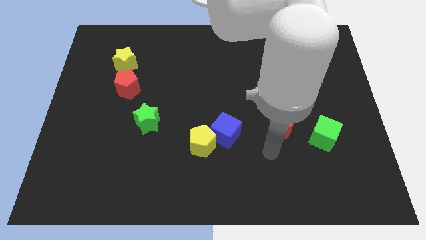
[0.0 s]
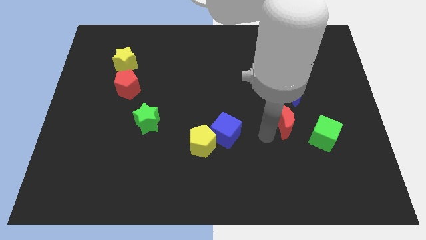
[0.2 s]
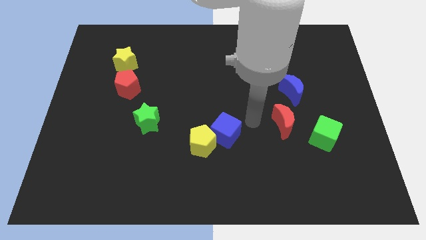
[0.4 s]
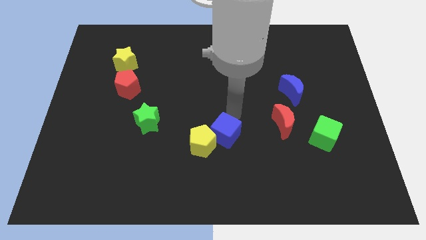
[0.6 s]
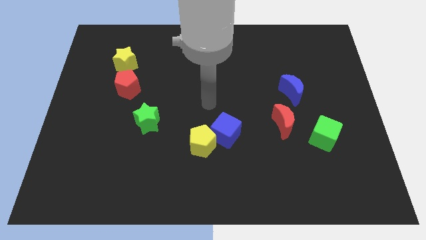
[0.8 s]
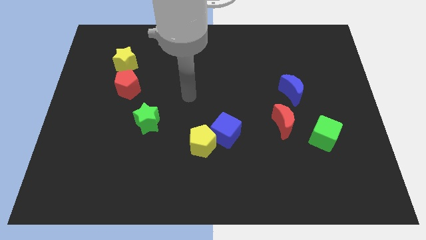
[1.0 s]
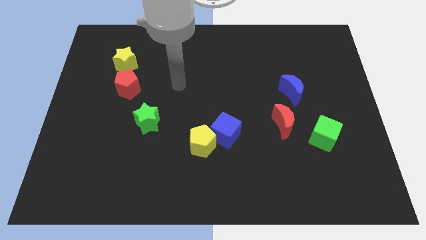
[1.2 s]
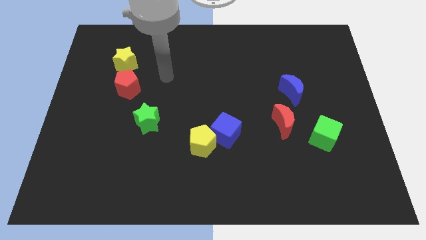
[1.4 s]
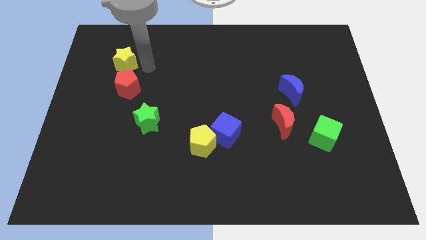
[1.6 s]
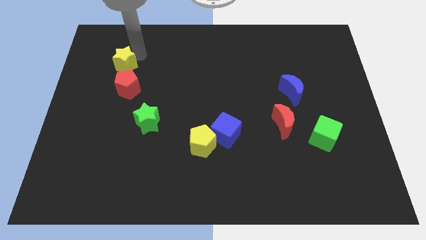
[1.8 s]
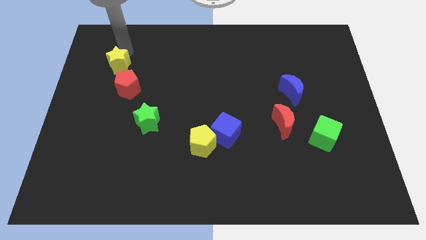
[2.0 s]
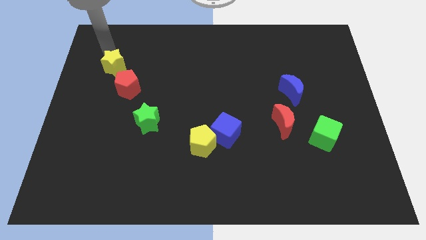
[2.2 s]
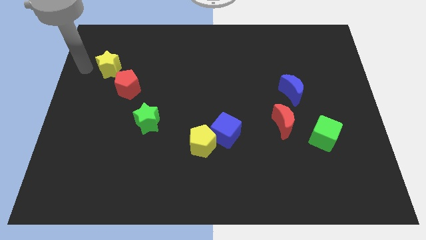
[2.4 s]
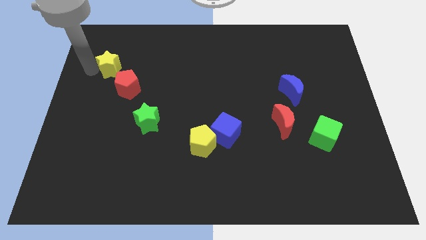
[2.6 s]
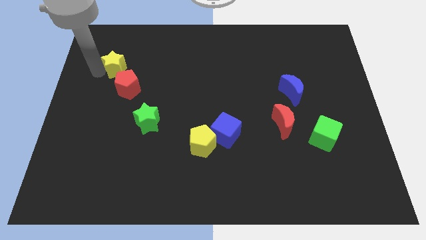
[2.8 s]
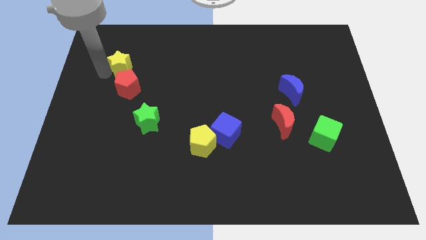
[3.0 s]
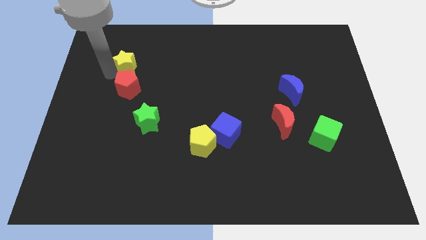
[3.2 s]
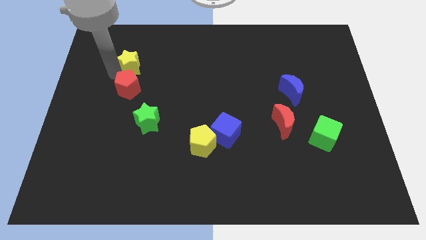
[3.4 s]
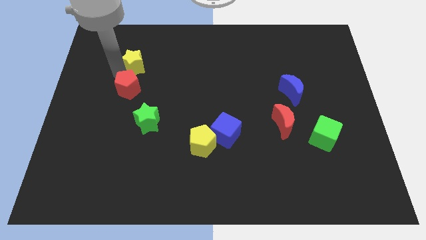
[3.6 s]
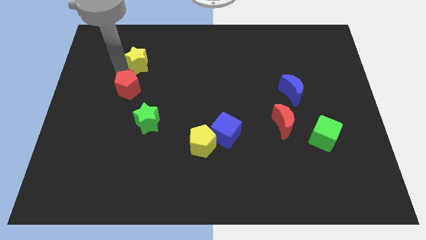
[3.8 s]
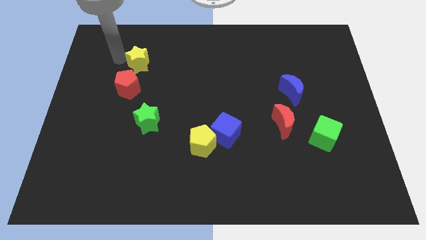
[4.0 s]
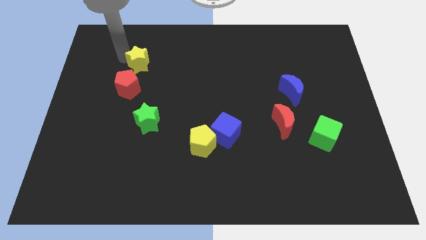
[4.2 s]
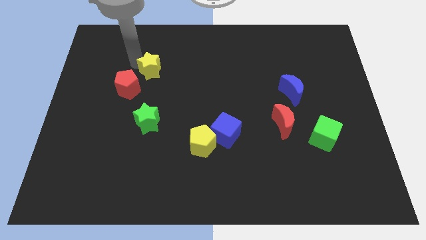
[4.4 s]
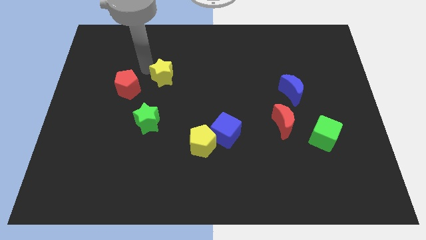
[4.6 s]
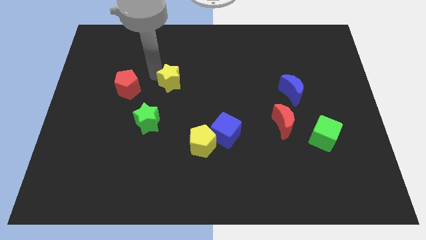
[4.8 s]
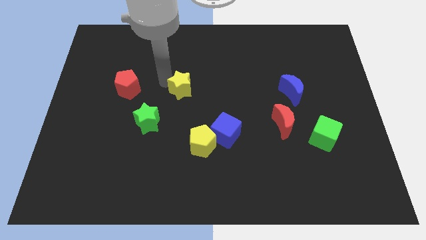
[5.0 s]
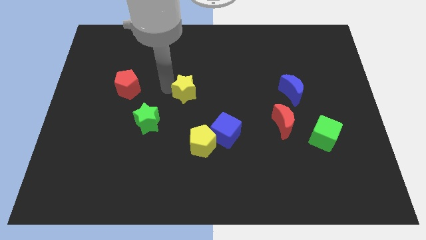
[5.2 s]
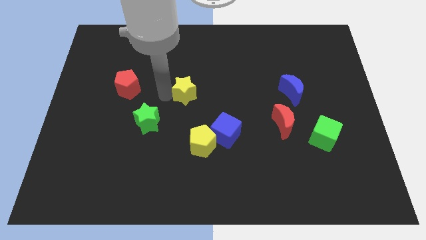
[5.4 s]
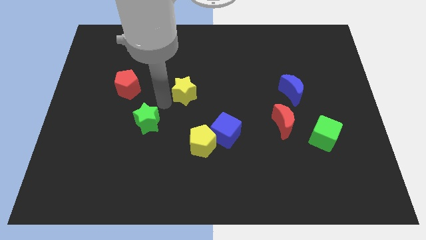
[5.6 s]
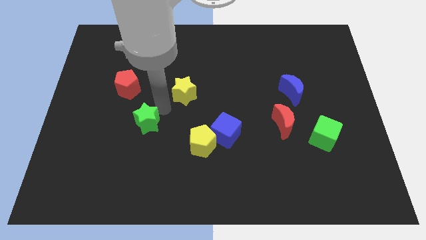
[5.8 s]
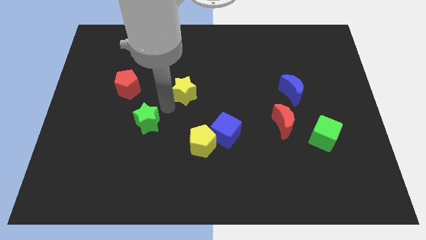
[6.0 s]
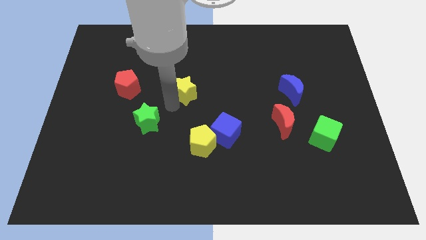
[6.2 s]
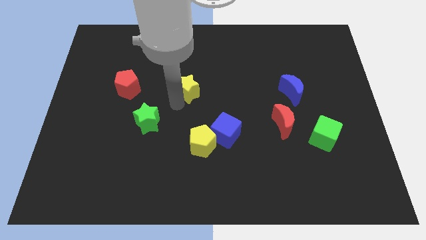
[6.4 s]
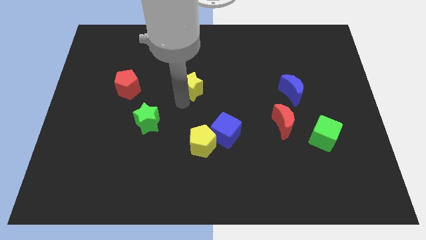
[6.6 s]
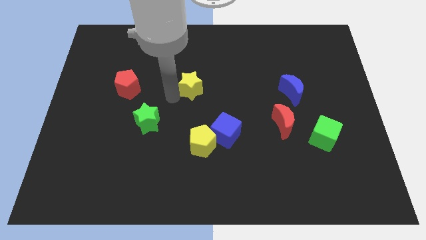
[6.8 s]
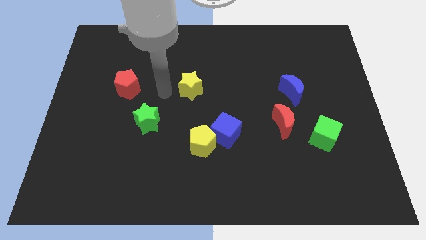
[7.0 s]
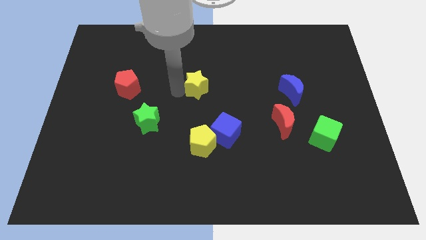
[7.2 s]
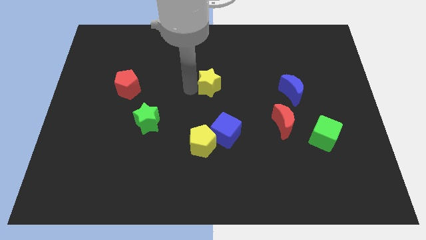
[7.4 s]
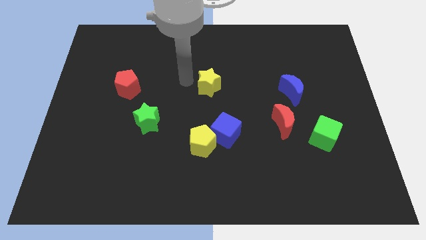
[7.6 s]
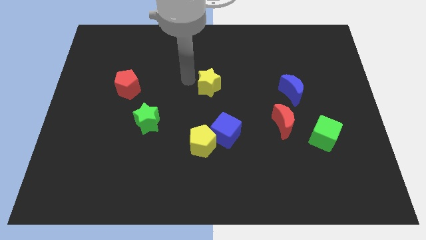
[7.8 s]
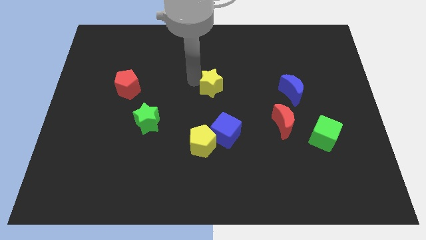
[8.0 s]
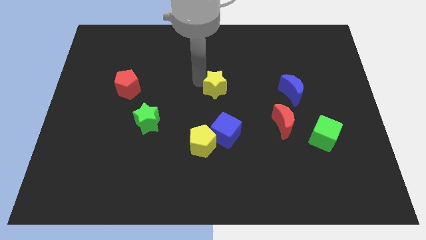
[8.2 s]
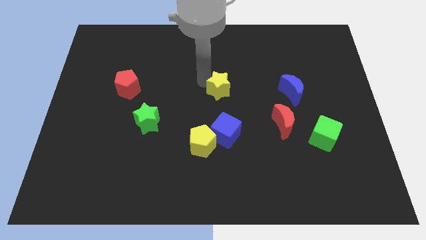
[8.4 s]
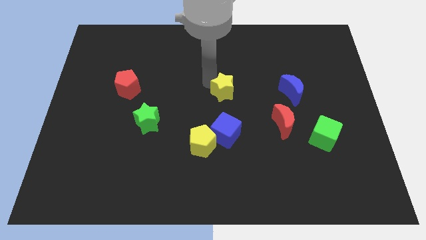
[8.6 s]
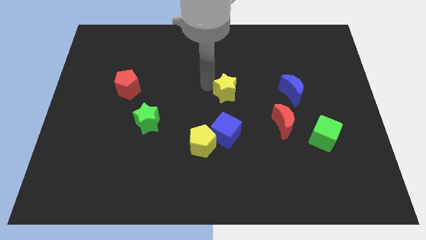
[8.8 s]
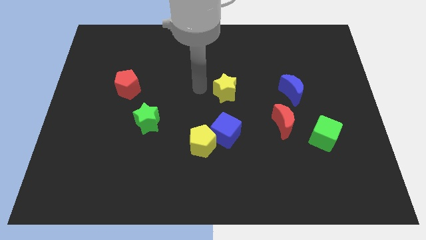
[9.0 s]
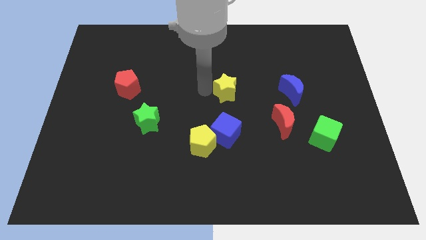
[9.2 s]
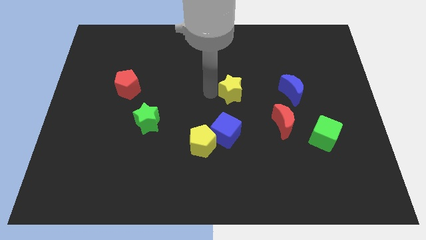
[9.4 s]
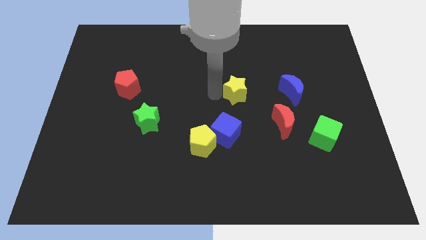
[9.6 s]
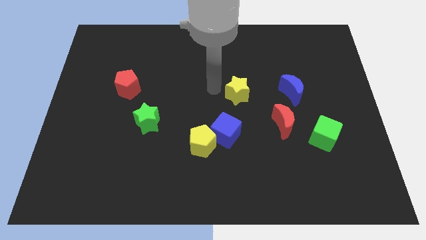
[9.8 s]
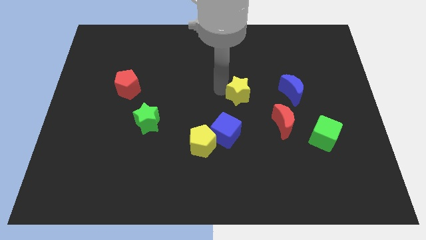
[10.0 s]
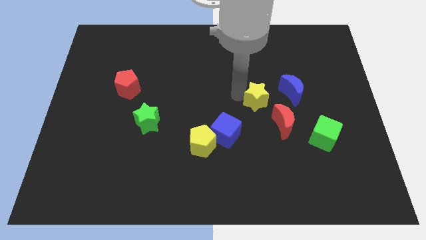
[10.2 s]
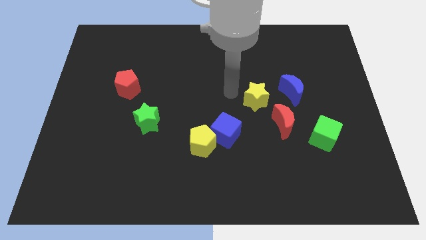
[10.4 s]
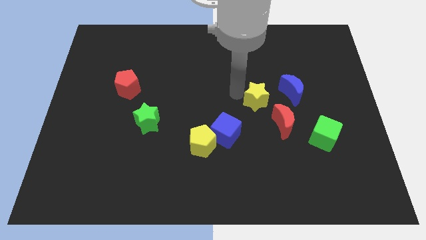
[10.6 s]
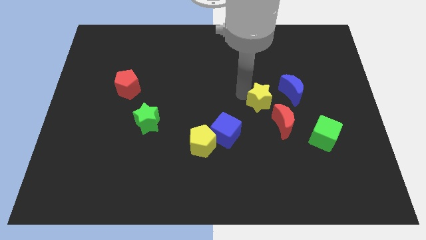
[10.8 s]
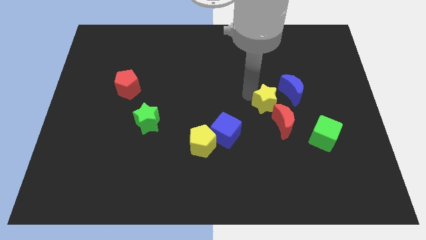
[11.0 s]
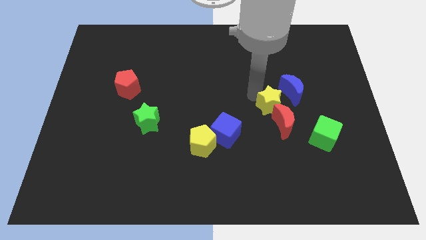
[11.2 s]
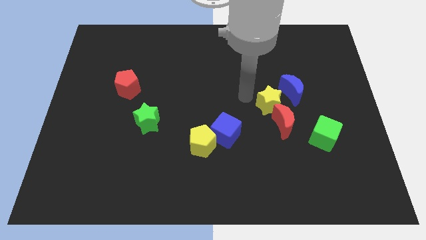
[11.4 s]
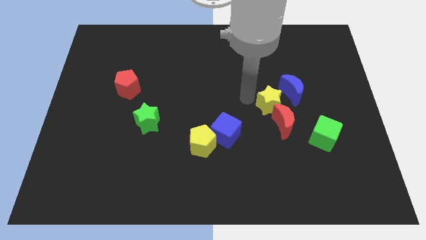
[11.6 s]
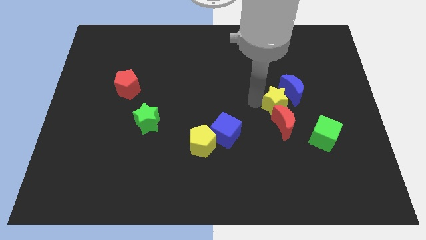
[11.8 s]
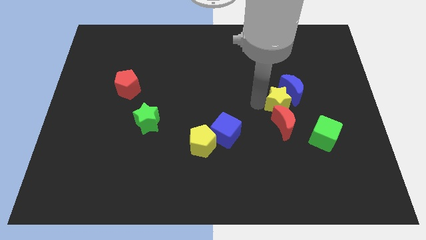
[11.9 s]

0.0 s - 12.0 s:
slide the yellow star to the top right side of the red moon

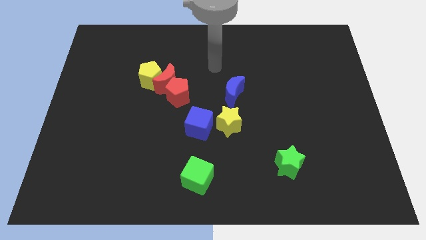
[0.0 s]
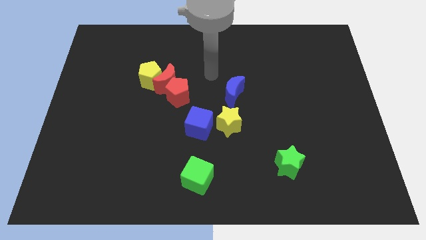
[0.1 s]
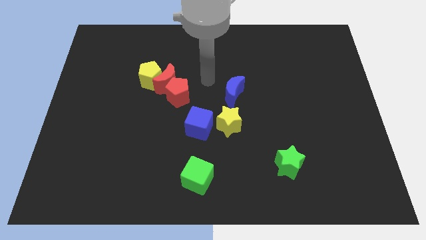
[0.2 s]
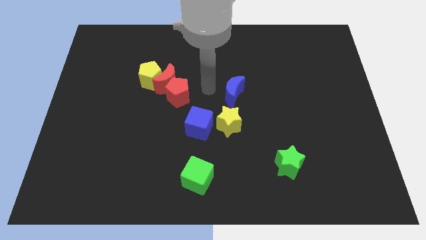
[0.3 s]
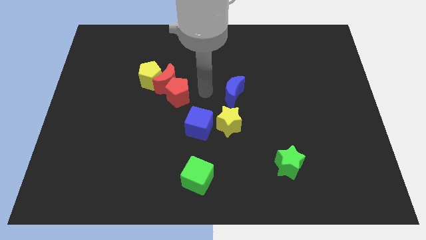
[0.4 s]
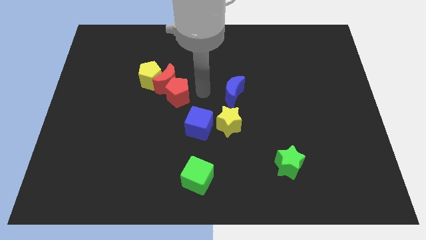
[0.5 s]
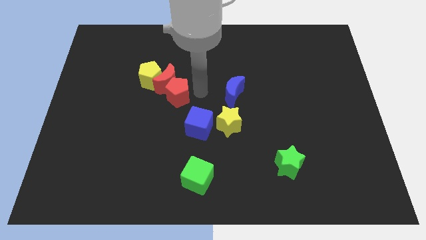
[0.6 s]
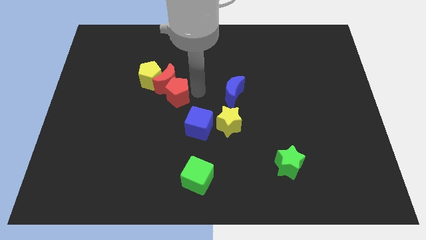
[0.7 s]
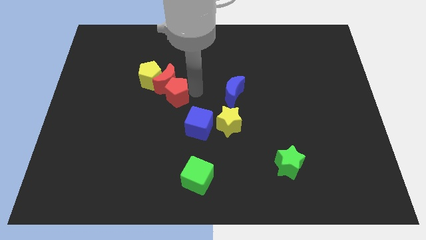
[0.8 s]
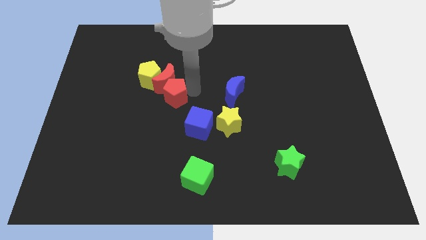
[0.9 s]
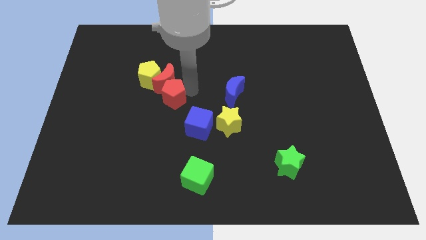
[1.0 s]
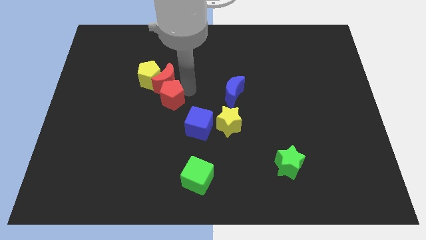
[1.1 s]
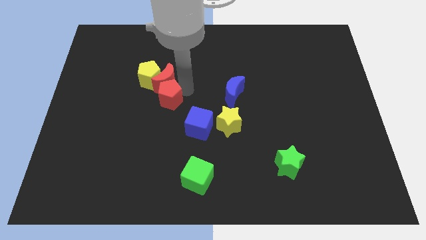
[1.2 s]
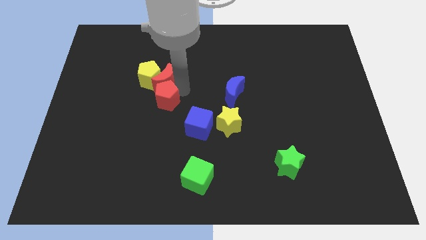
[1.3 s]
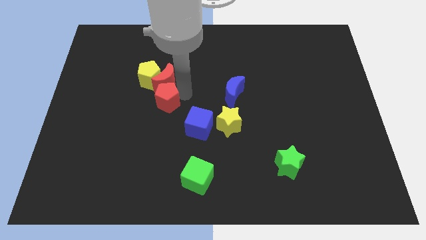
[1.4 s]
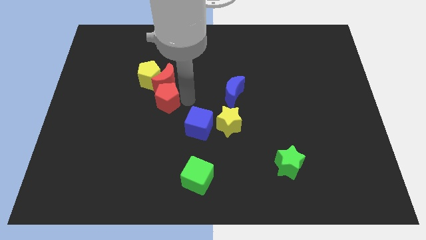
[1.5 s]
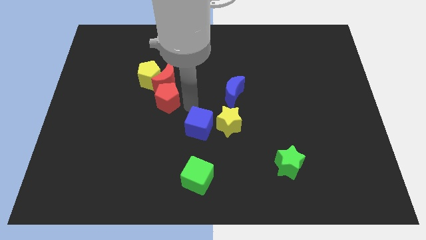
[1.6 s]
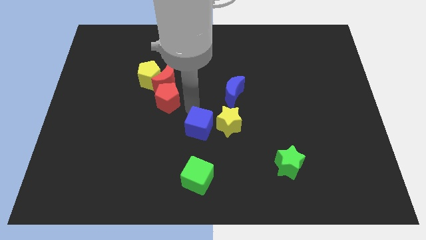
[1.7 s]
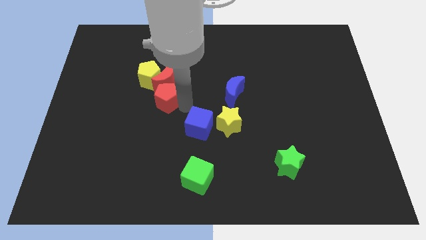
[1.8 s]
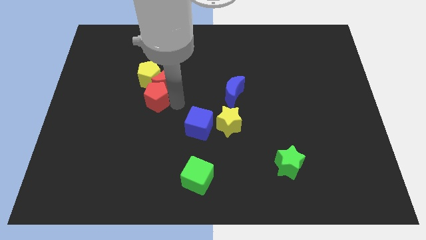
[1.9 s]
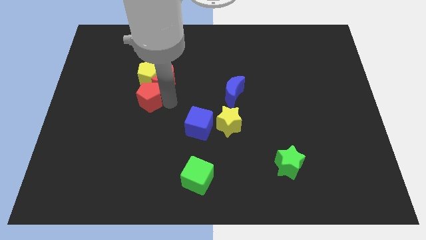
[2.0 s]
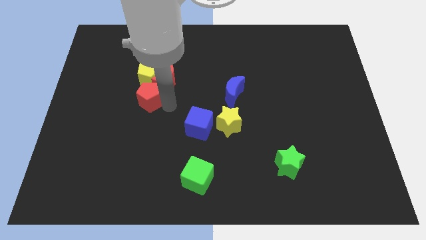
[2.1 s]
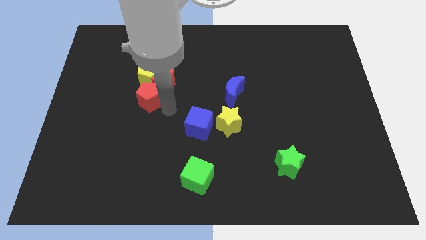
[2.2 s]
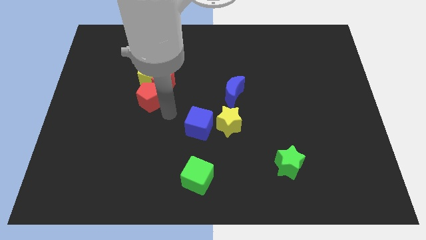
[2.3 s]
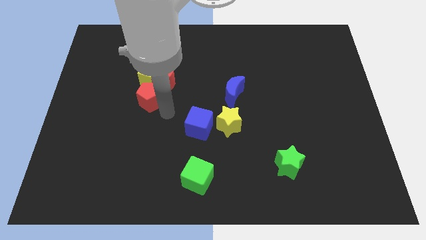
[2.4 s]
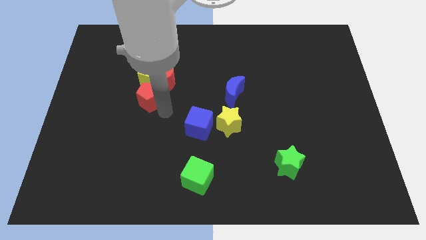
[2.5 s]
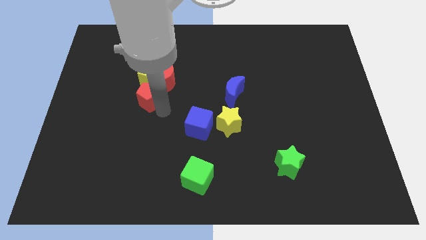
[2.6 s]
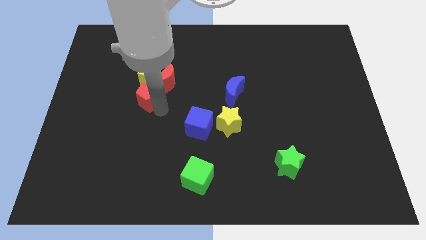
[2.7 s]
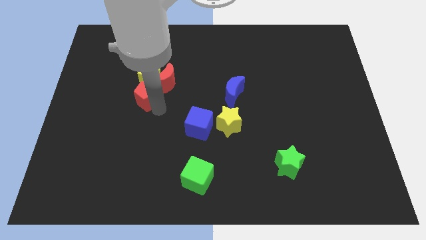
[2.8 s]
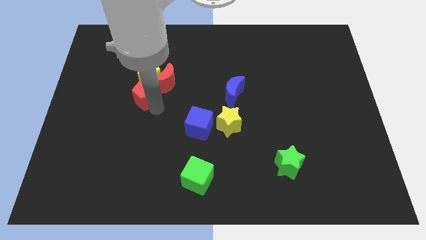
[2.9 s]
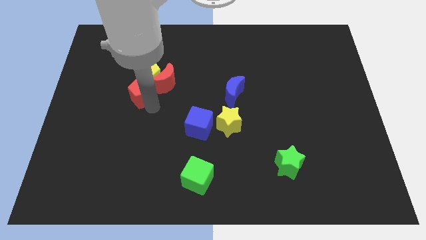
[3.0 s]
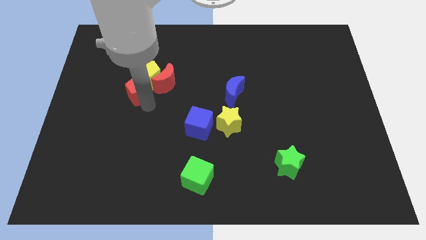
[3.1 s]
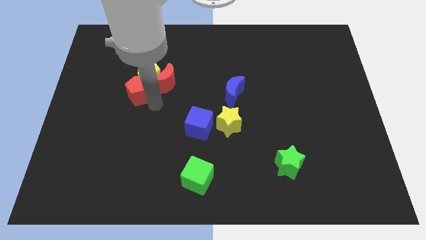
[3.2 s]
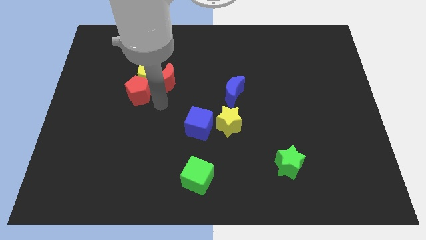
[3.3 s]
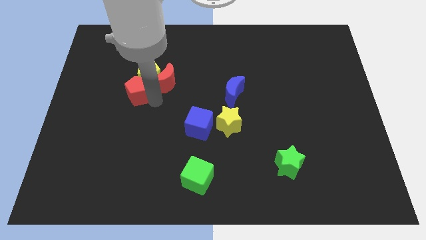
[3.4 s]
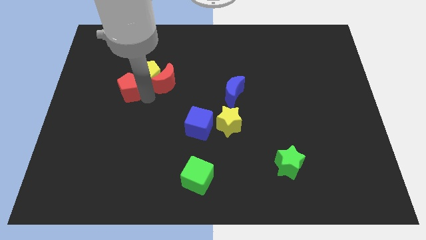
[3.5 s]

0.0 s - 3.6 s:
put the red pentagon to the left of the yellow pentagon
